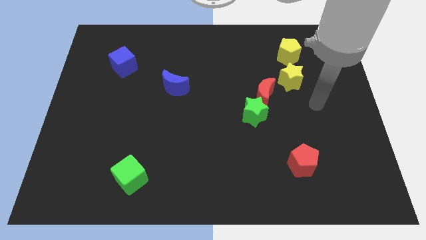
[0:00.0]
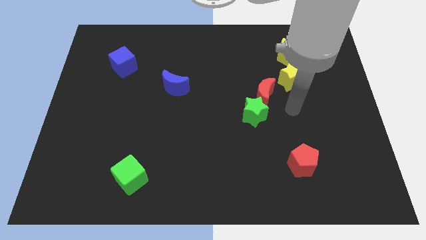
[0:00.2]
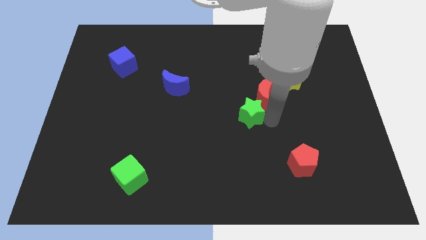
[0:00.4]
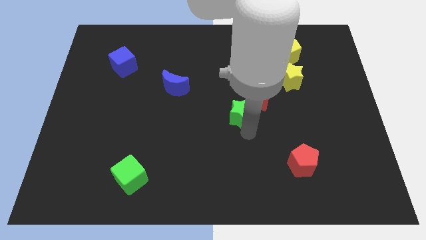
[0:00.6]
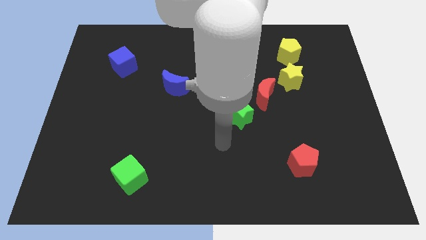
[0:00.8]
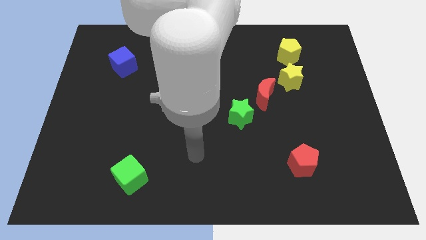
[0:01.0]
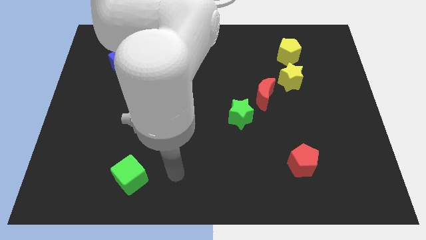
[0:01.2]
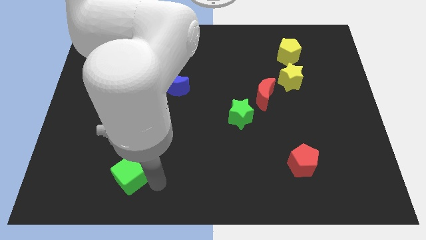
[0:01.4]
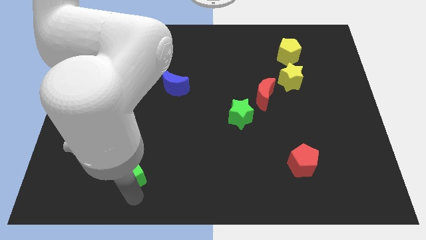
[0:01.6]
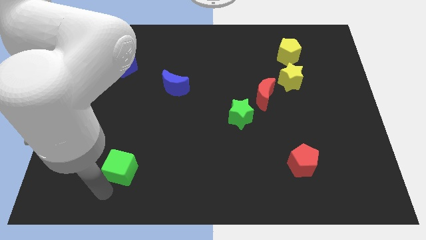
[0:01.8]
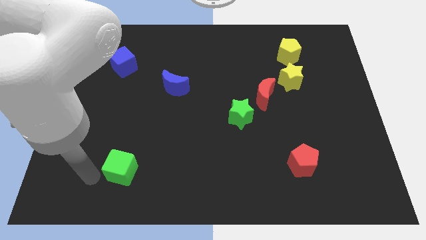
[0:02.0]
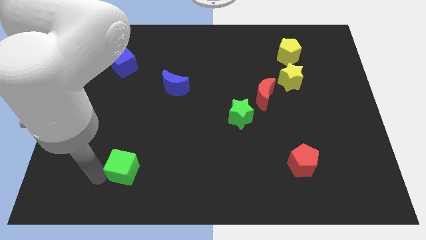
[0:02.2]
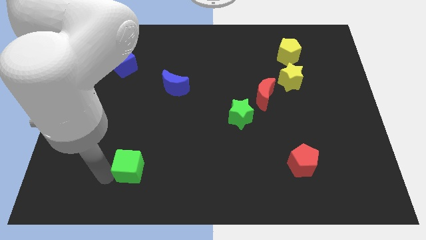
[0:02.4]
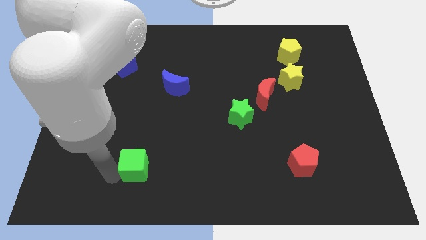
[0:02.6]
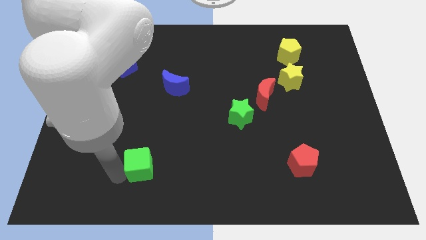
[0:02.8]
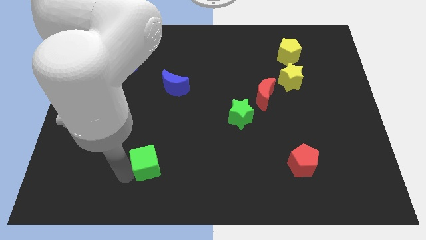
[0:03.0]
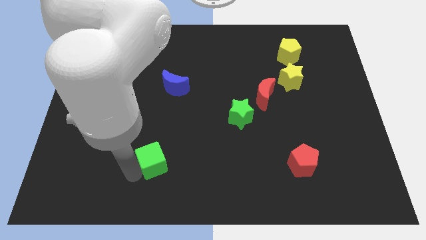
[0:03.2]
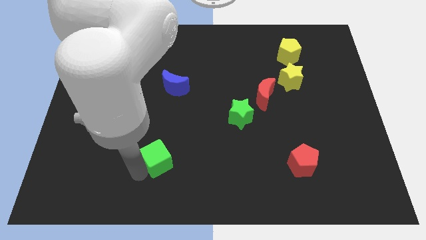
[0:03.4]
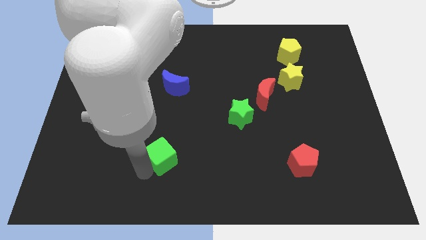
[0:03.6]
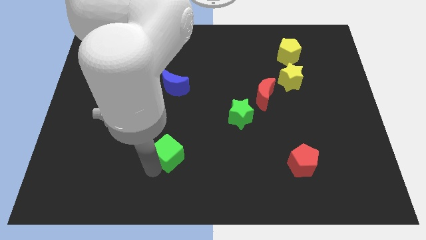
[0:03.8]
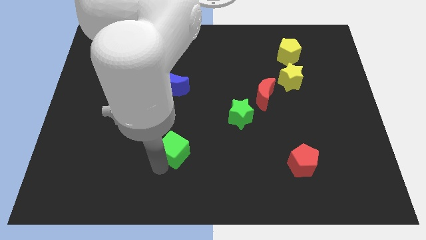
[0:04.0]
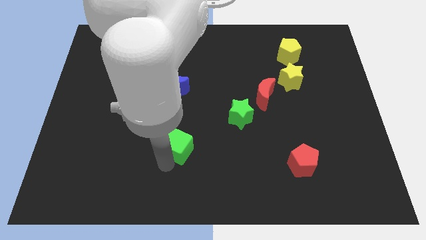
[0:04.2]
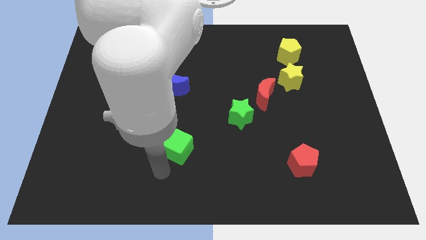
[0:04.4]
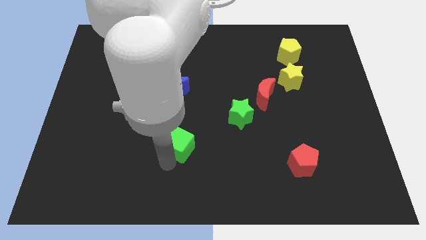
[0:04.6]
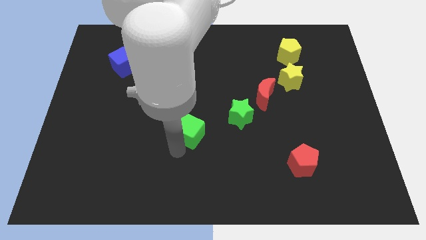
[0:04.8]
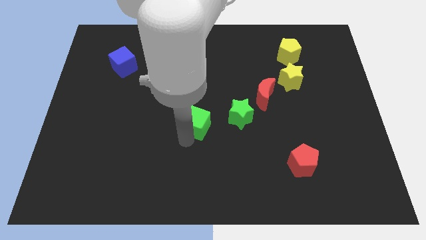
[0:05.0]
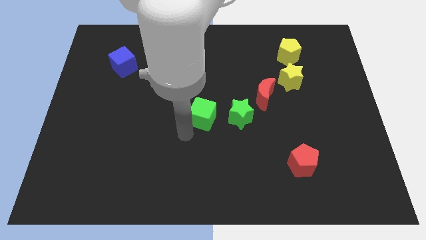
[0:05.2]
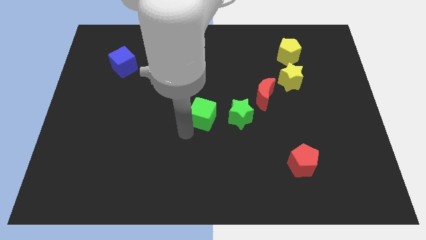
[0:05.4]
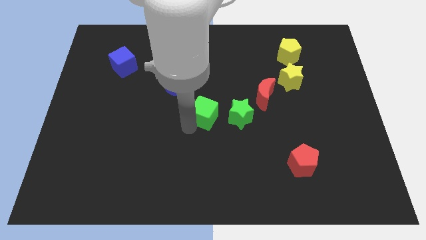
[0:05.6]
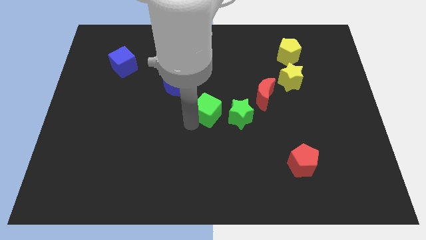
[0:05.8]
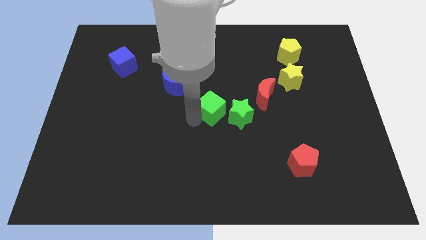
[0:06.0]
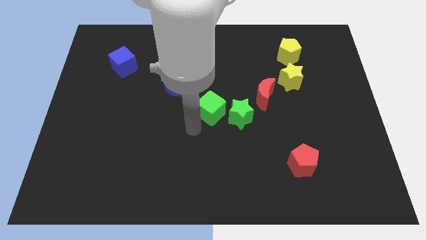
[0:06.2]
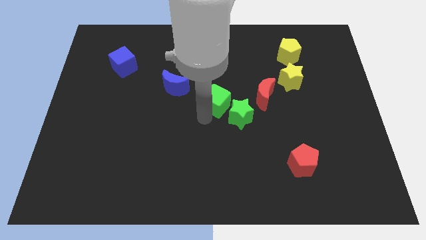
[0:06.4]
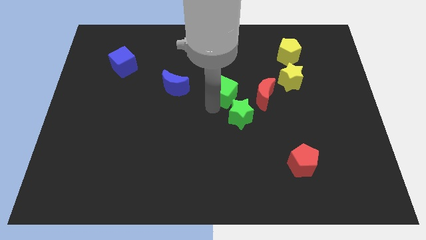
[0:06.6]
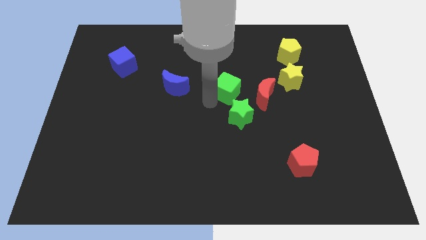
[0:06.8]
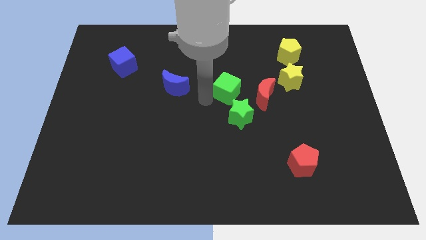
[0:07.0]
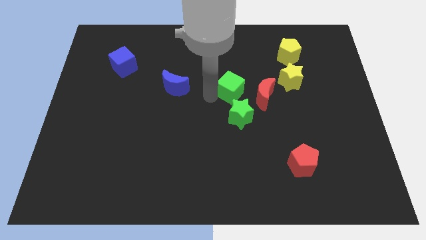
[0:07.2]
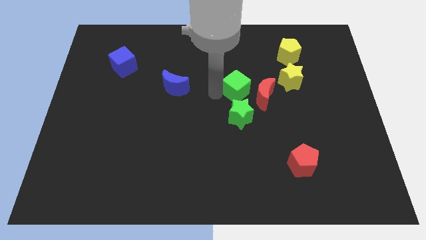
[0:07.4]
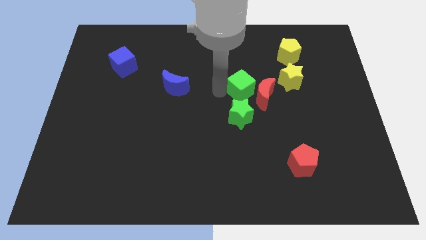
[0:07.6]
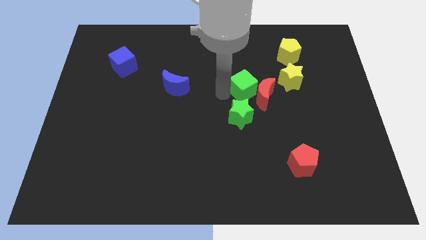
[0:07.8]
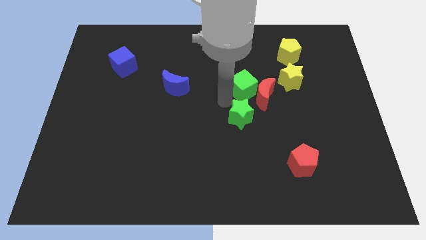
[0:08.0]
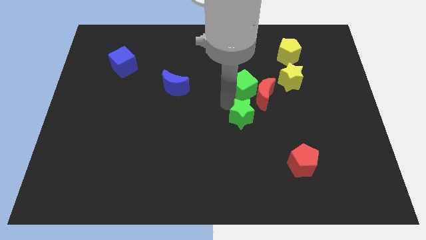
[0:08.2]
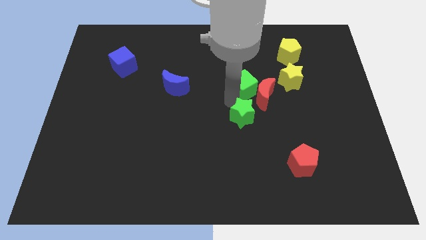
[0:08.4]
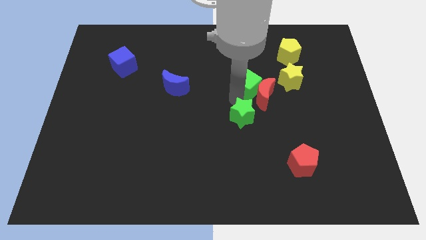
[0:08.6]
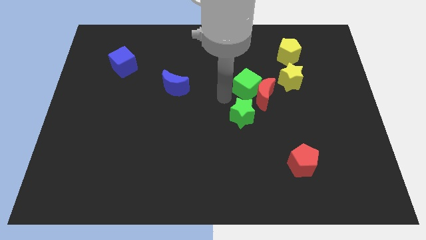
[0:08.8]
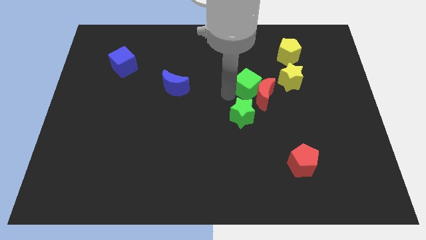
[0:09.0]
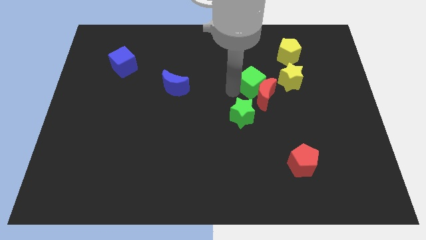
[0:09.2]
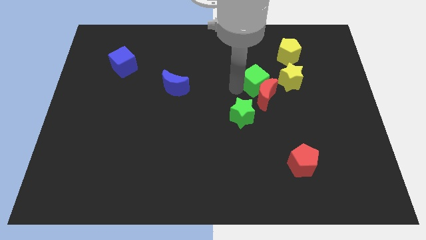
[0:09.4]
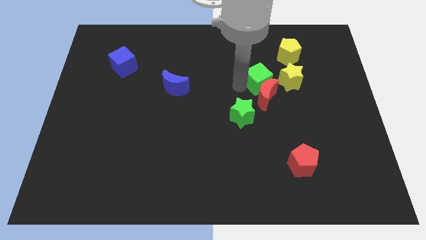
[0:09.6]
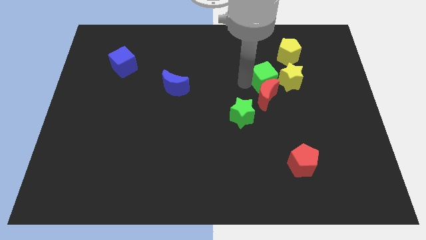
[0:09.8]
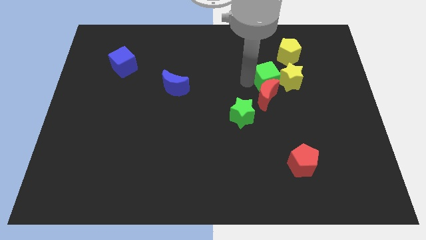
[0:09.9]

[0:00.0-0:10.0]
push the green cube close to the yellow star

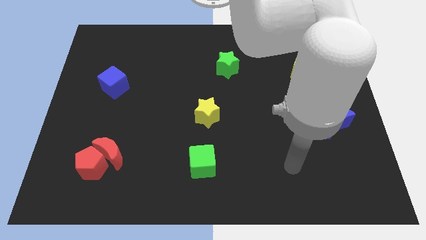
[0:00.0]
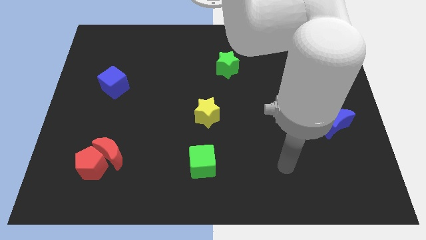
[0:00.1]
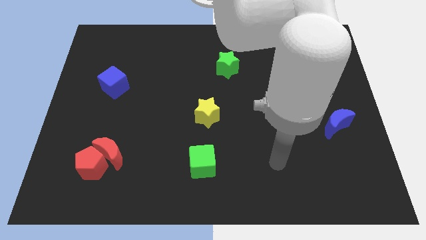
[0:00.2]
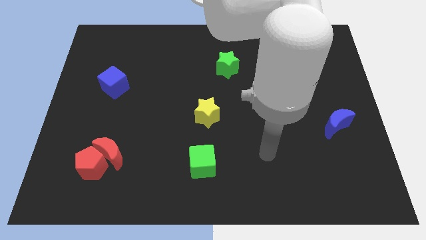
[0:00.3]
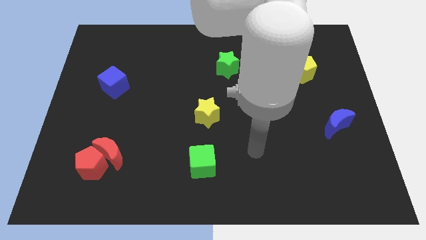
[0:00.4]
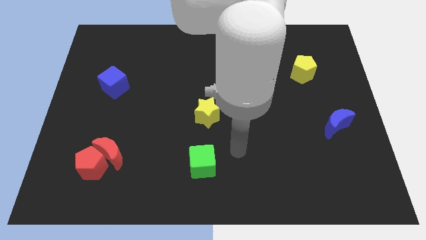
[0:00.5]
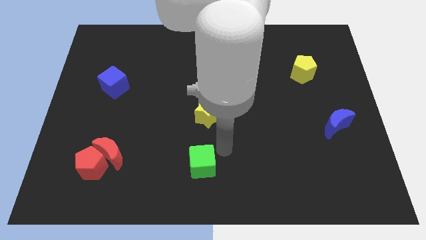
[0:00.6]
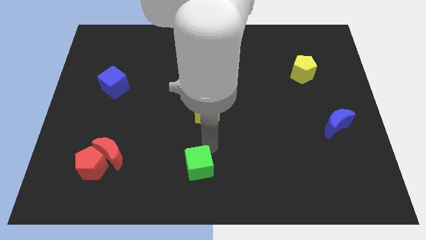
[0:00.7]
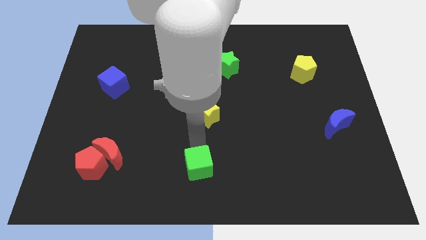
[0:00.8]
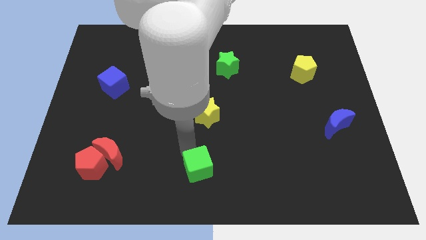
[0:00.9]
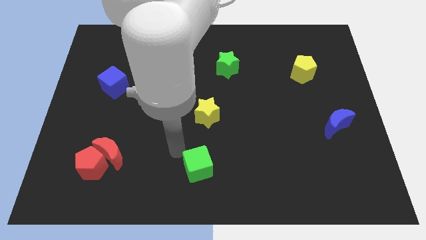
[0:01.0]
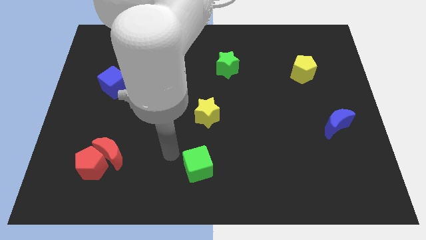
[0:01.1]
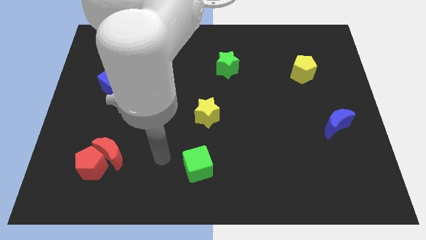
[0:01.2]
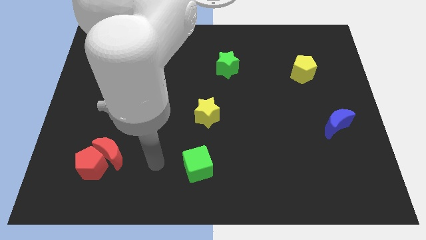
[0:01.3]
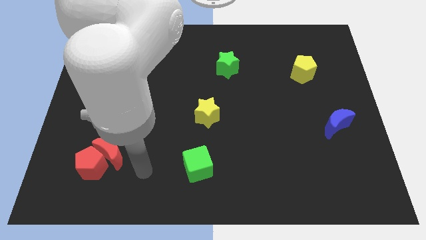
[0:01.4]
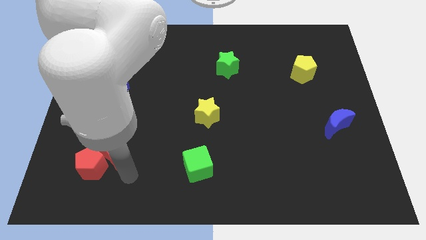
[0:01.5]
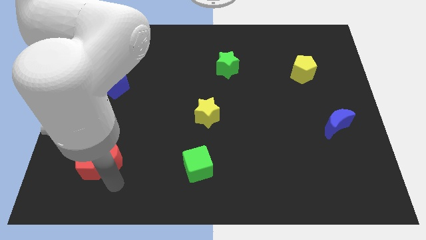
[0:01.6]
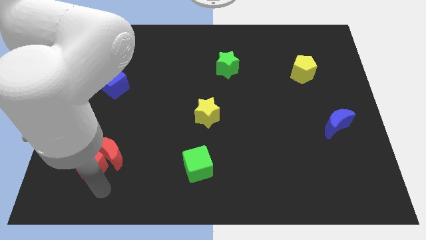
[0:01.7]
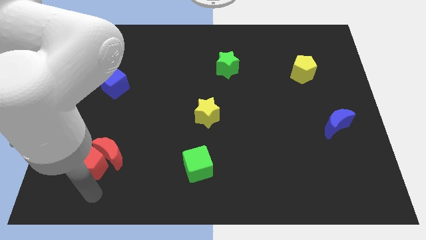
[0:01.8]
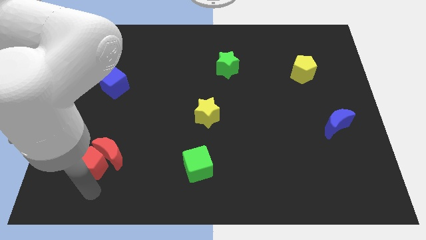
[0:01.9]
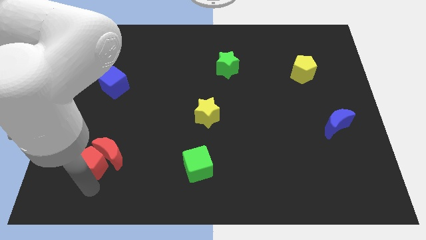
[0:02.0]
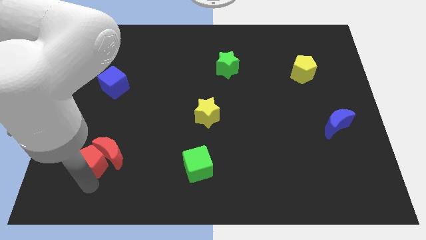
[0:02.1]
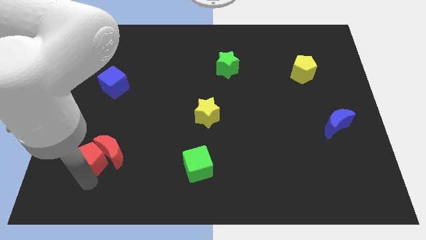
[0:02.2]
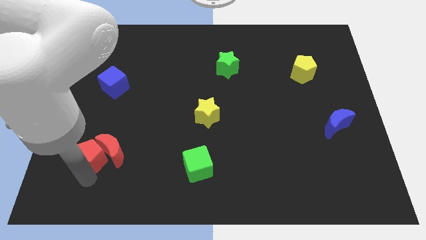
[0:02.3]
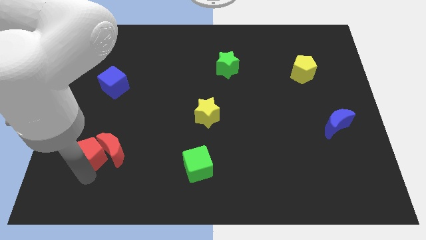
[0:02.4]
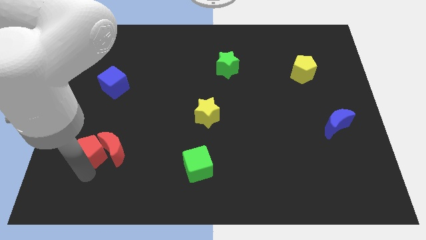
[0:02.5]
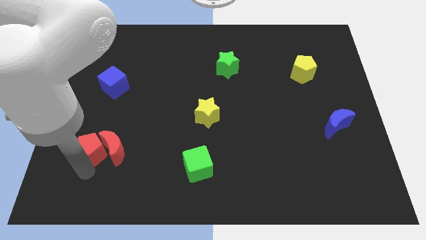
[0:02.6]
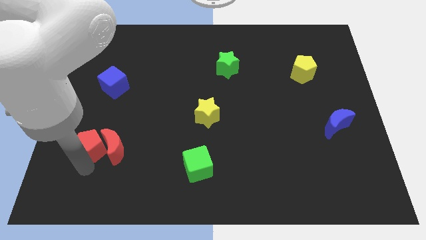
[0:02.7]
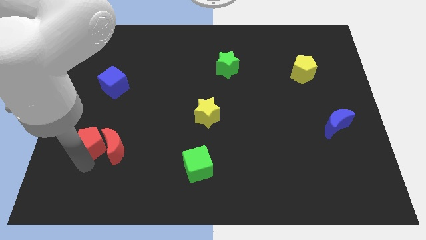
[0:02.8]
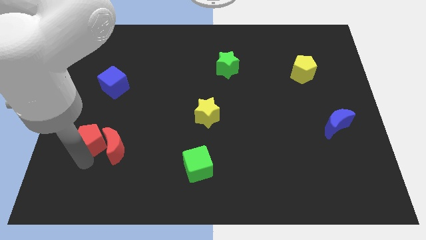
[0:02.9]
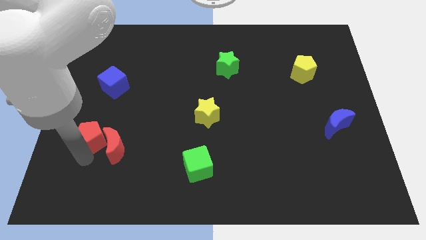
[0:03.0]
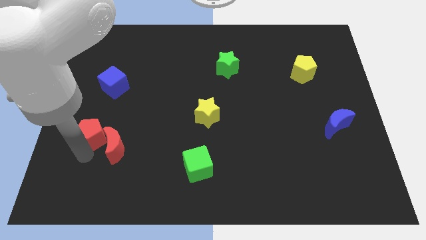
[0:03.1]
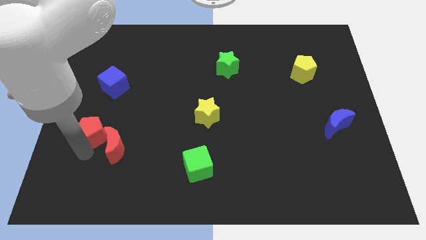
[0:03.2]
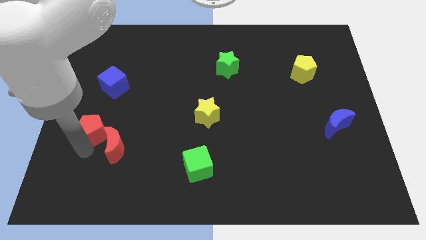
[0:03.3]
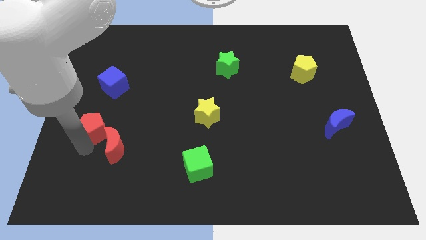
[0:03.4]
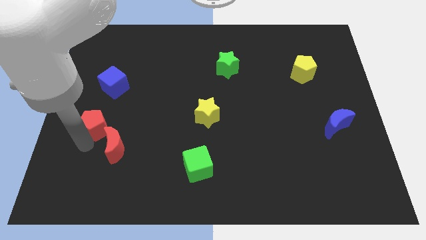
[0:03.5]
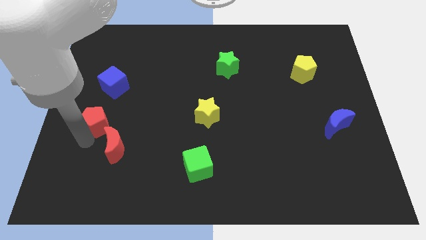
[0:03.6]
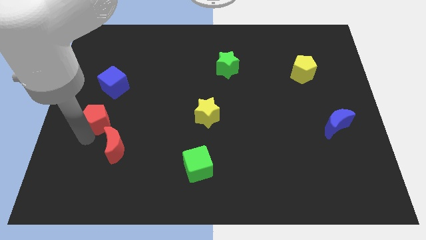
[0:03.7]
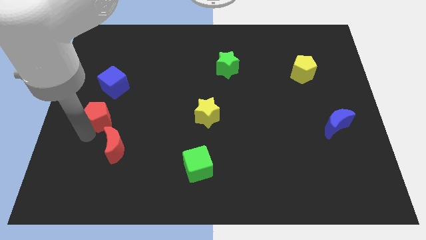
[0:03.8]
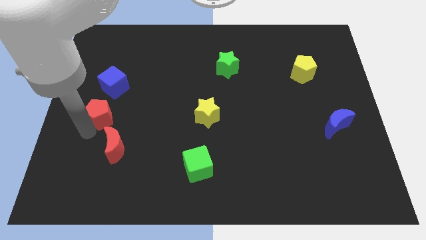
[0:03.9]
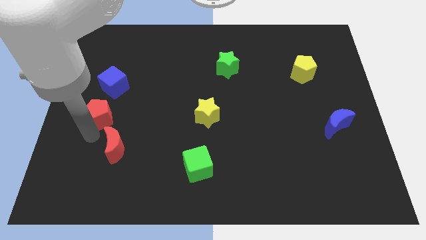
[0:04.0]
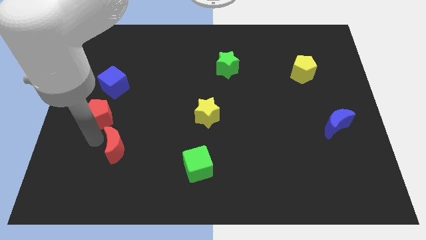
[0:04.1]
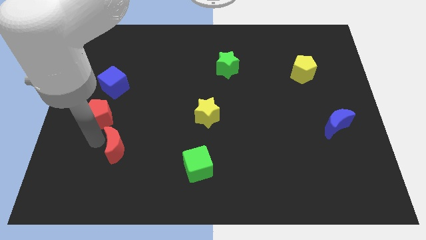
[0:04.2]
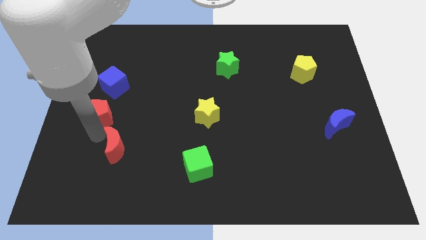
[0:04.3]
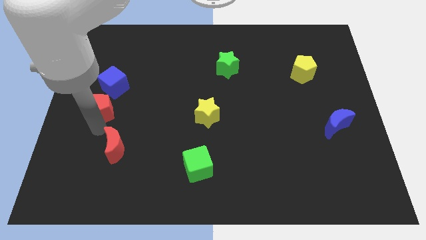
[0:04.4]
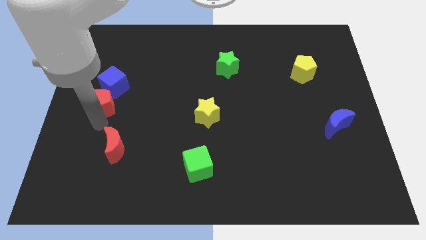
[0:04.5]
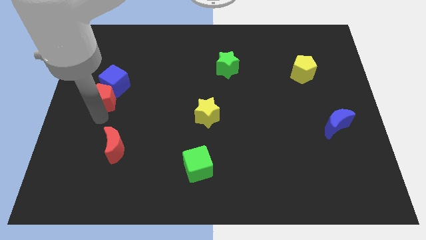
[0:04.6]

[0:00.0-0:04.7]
push the red pentagon to the blue cube
